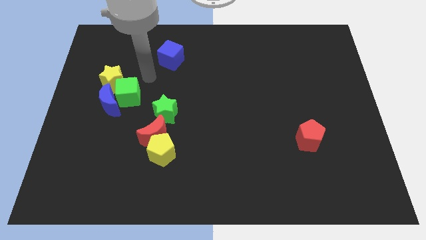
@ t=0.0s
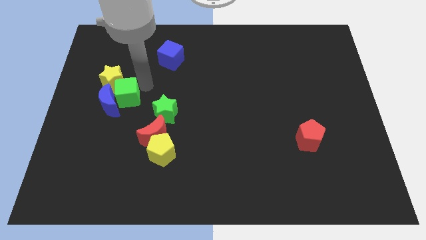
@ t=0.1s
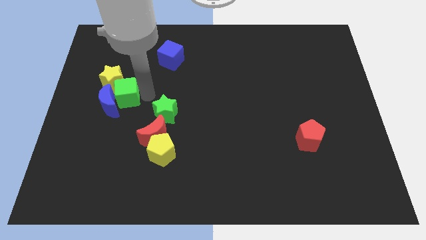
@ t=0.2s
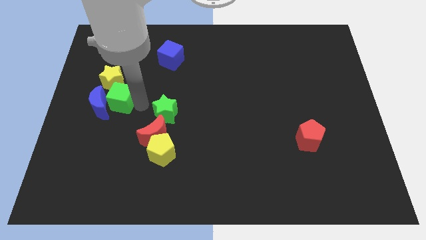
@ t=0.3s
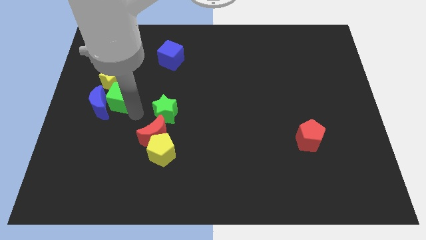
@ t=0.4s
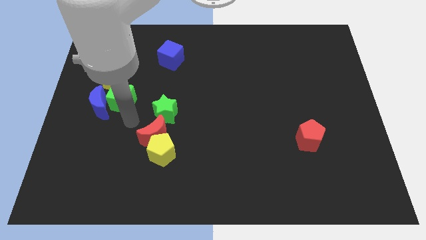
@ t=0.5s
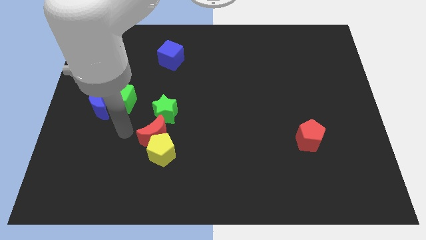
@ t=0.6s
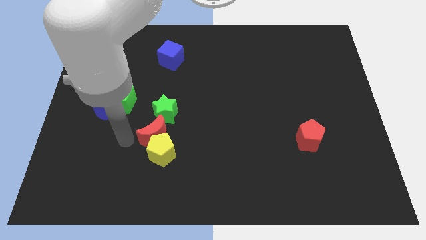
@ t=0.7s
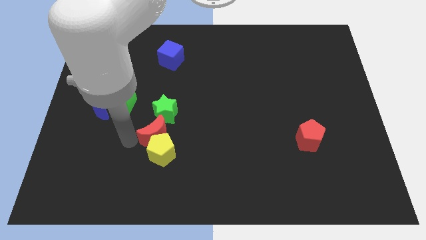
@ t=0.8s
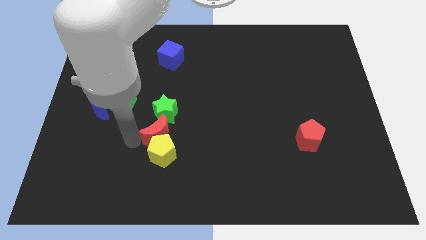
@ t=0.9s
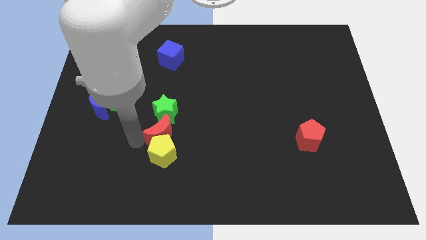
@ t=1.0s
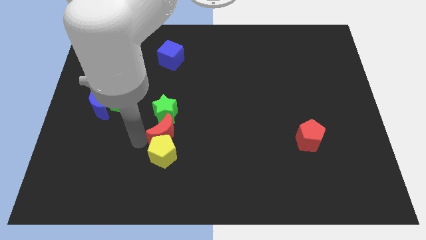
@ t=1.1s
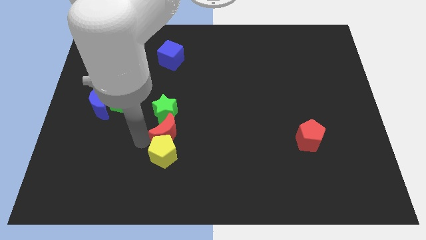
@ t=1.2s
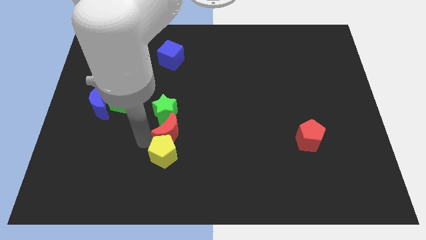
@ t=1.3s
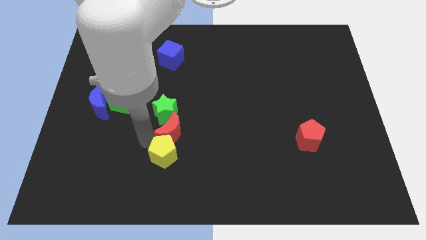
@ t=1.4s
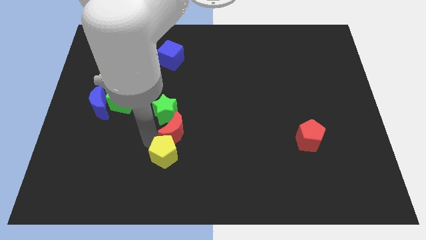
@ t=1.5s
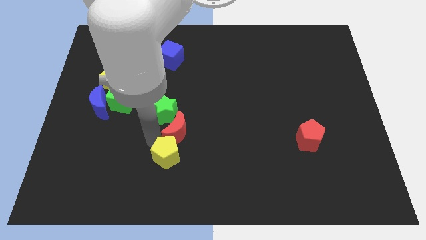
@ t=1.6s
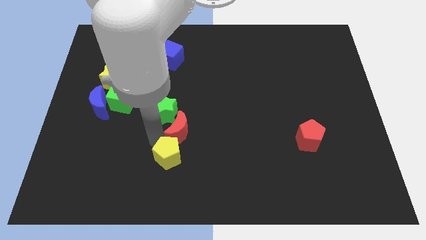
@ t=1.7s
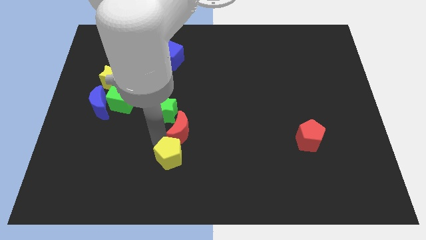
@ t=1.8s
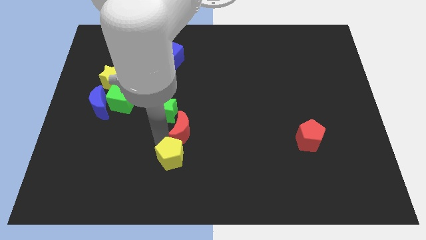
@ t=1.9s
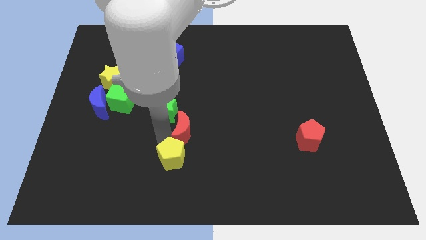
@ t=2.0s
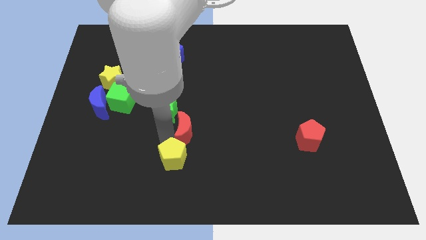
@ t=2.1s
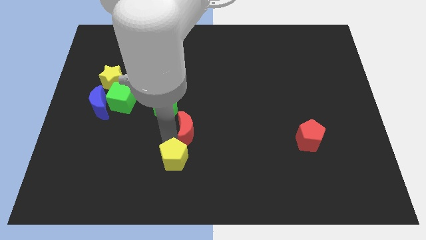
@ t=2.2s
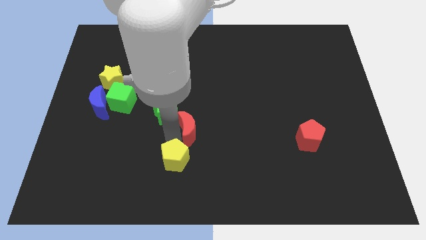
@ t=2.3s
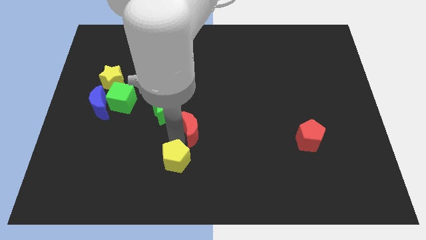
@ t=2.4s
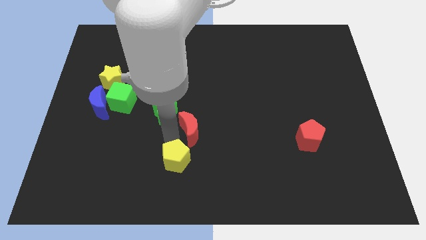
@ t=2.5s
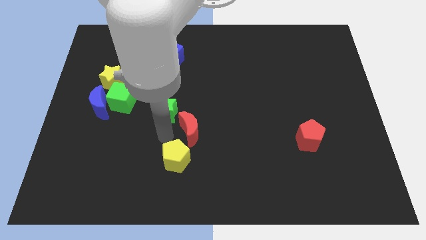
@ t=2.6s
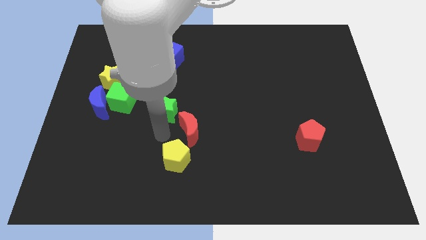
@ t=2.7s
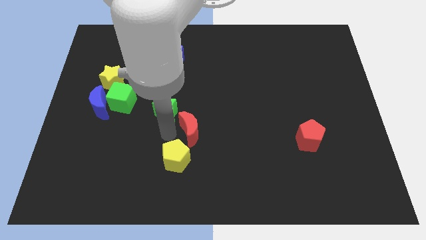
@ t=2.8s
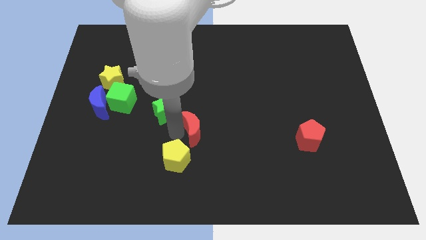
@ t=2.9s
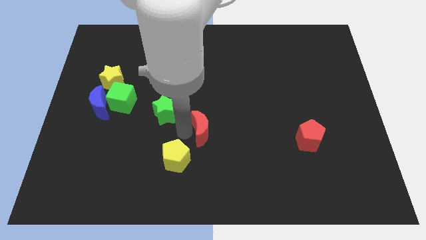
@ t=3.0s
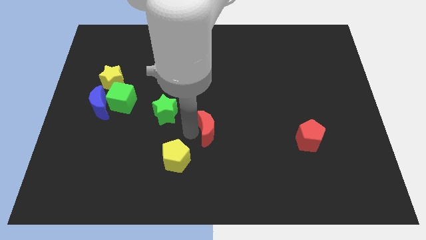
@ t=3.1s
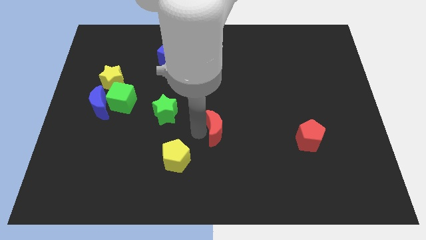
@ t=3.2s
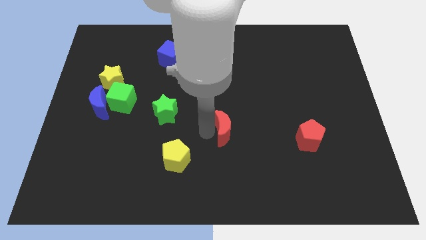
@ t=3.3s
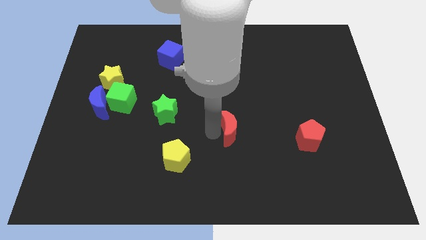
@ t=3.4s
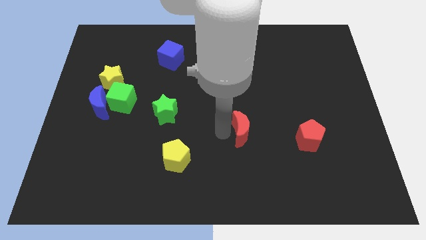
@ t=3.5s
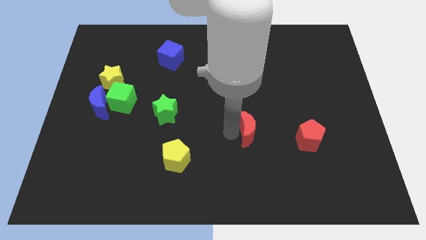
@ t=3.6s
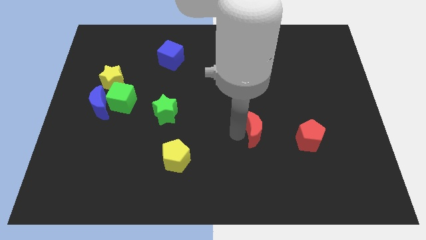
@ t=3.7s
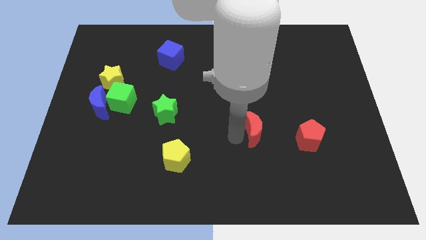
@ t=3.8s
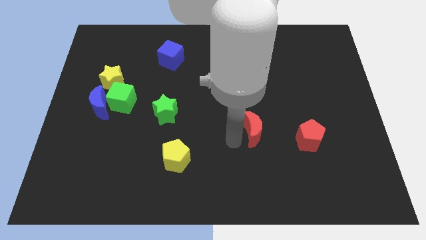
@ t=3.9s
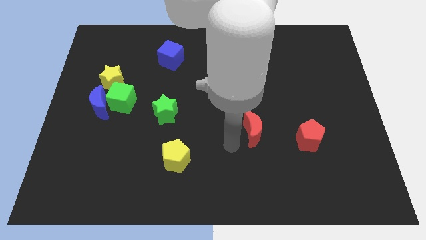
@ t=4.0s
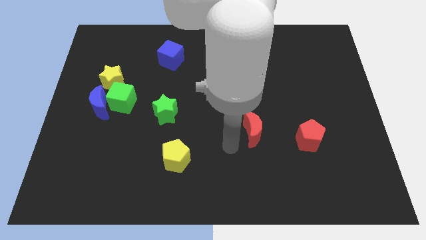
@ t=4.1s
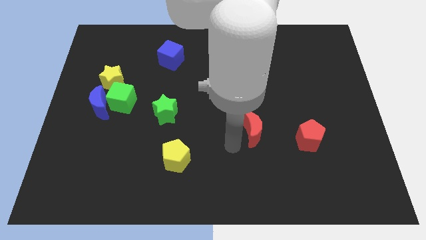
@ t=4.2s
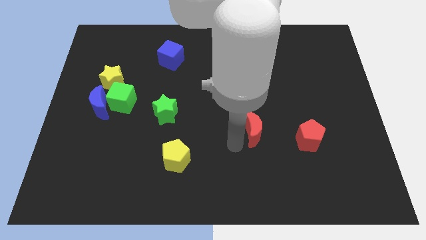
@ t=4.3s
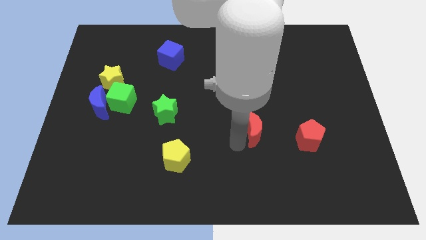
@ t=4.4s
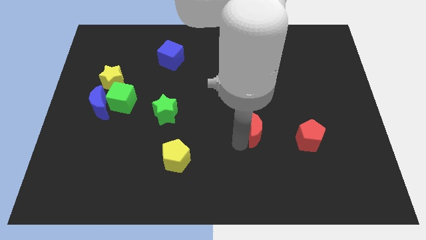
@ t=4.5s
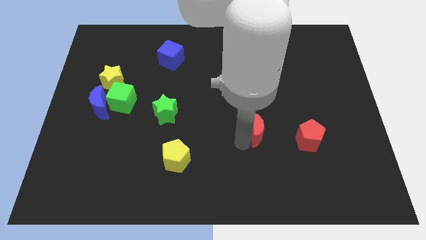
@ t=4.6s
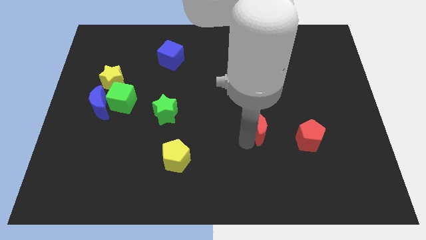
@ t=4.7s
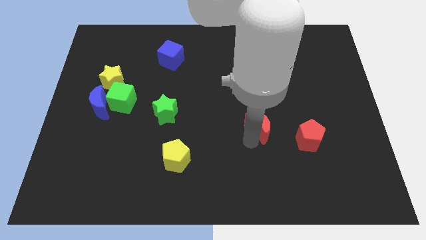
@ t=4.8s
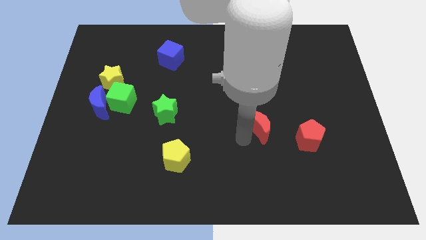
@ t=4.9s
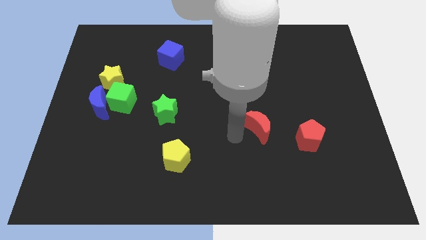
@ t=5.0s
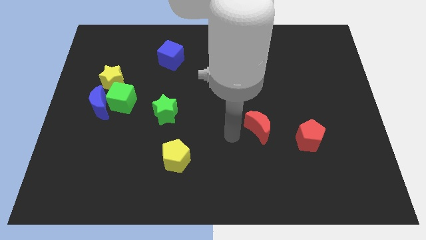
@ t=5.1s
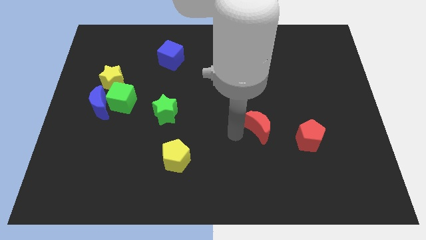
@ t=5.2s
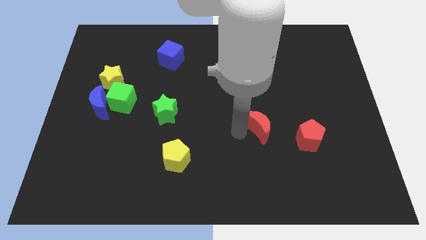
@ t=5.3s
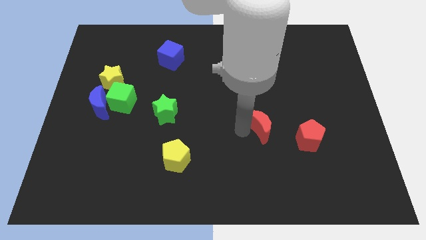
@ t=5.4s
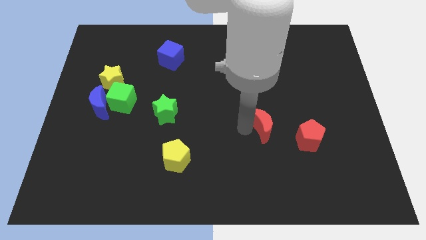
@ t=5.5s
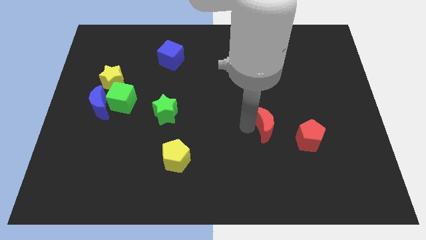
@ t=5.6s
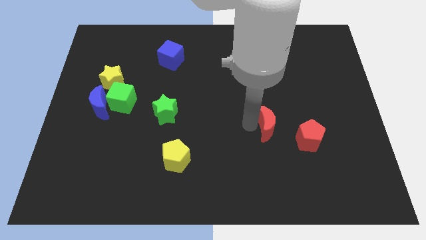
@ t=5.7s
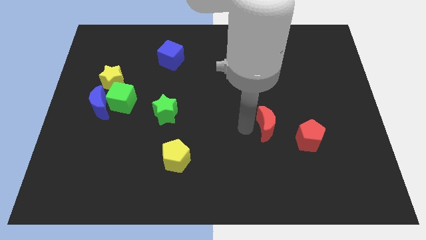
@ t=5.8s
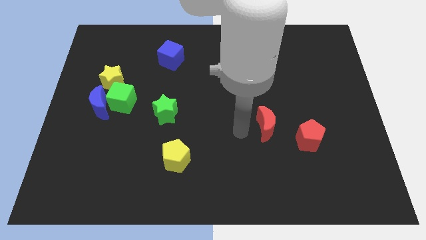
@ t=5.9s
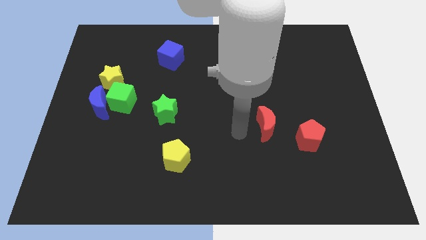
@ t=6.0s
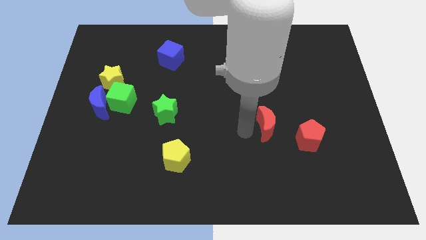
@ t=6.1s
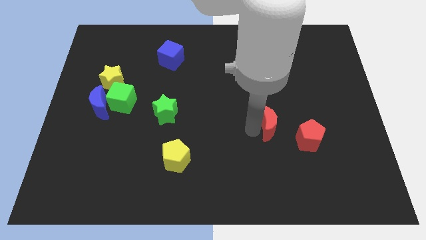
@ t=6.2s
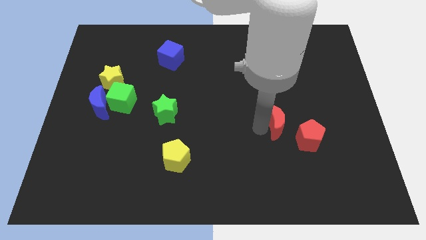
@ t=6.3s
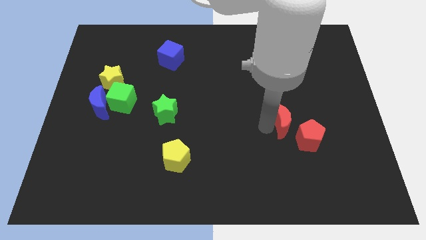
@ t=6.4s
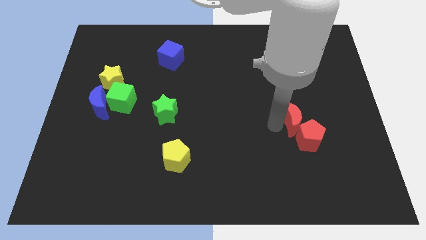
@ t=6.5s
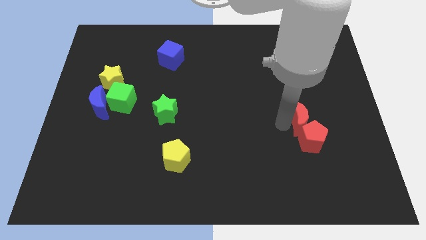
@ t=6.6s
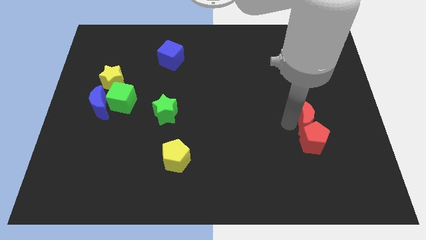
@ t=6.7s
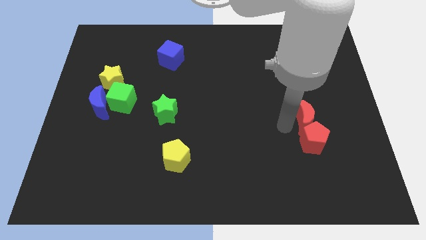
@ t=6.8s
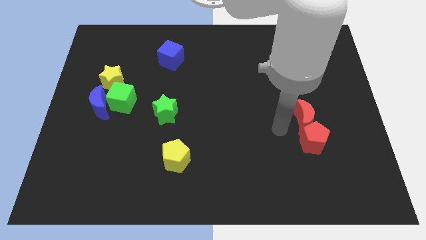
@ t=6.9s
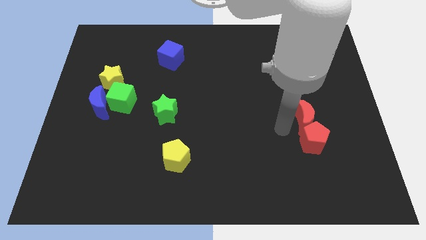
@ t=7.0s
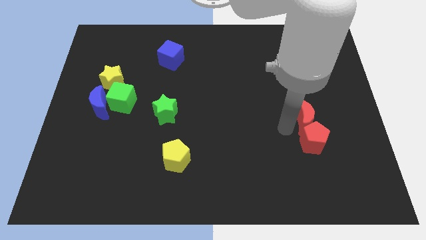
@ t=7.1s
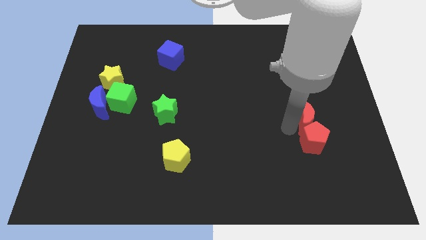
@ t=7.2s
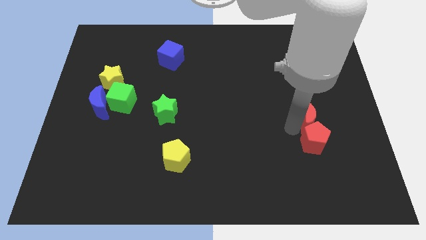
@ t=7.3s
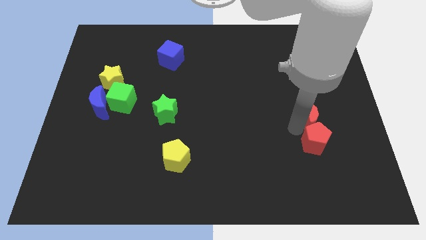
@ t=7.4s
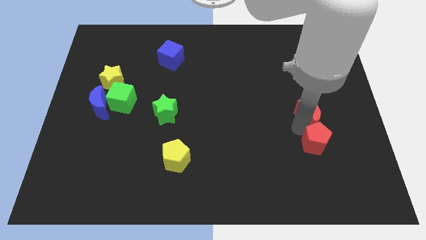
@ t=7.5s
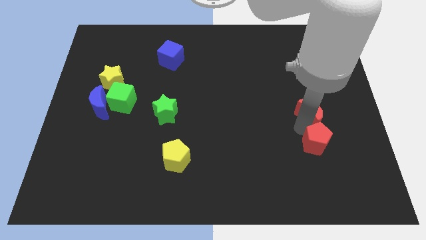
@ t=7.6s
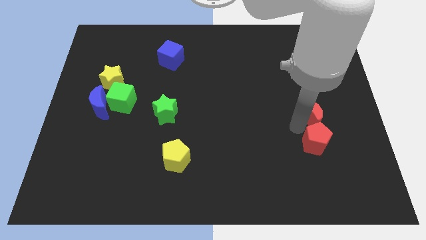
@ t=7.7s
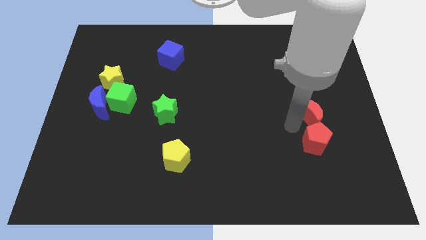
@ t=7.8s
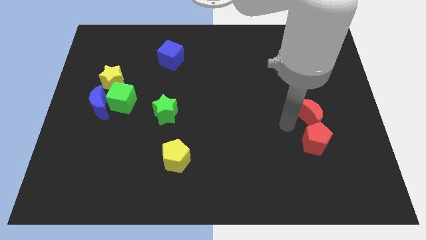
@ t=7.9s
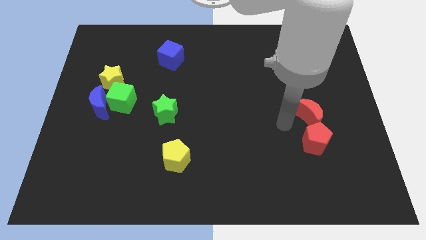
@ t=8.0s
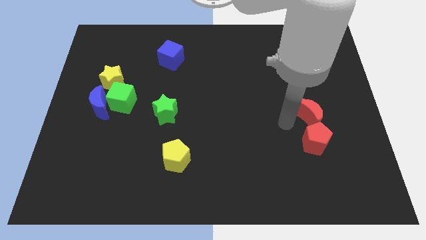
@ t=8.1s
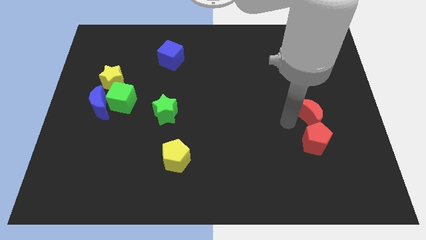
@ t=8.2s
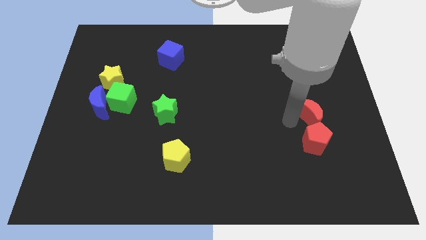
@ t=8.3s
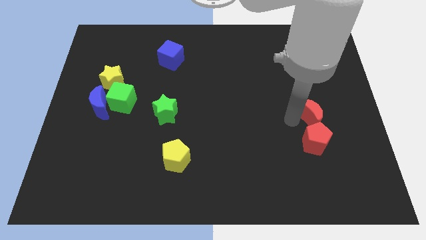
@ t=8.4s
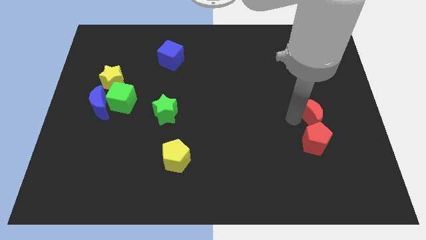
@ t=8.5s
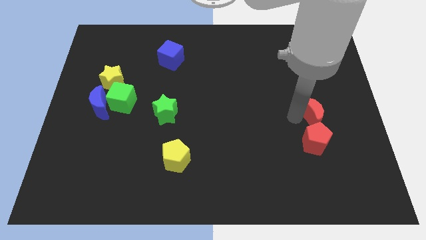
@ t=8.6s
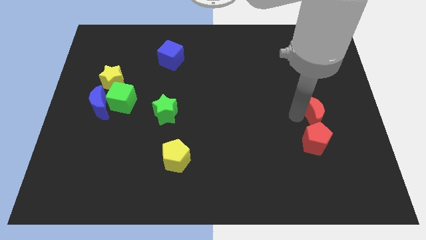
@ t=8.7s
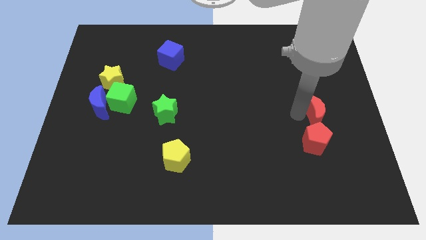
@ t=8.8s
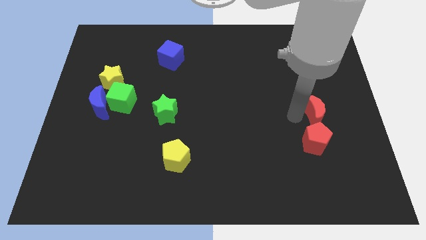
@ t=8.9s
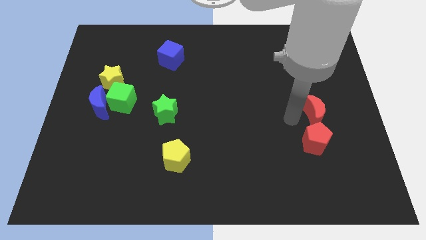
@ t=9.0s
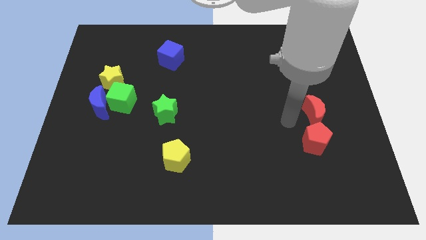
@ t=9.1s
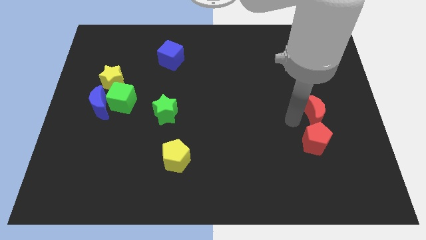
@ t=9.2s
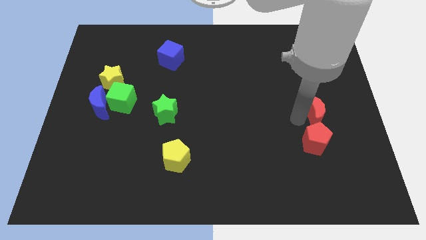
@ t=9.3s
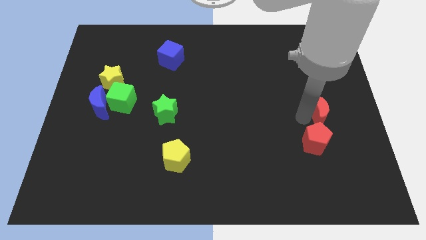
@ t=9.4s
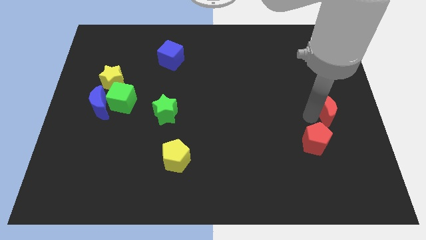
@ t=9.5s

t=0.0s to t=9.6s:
push the red moon to the right side
